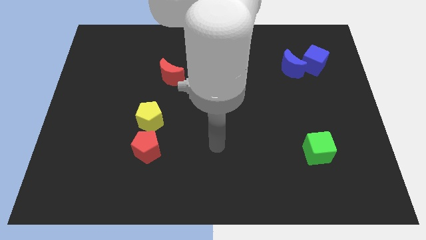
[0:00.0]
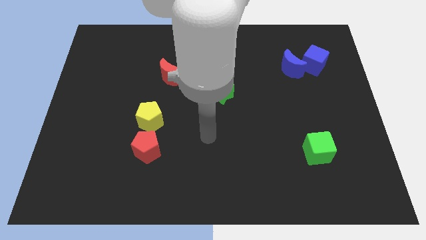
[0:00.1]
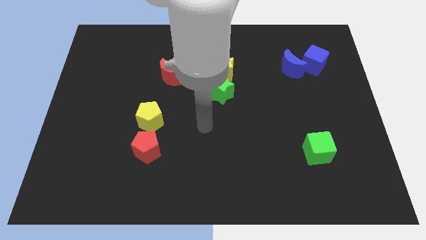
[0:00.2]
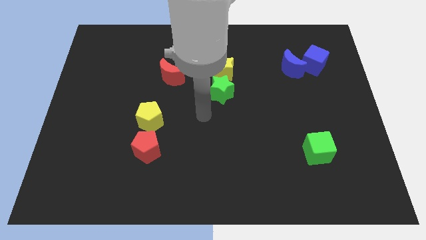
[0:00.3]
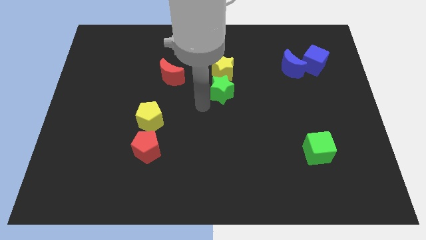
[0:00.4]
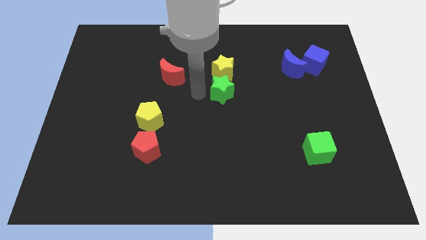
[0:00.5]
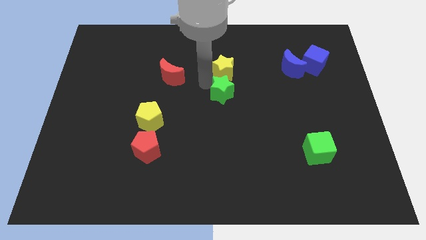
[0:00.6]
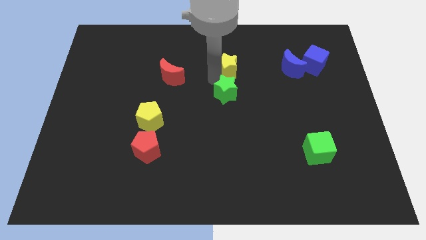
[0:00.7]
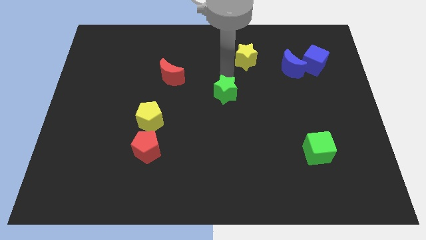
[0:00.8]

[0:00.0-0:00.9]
separate the green star from the yellow star

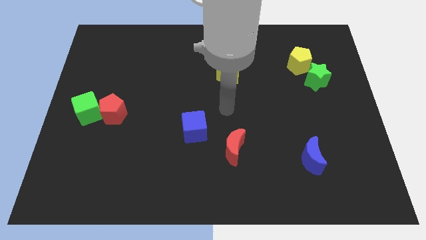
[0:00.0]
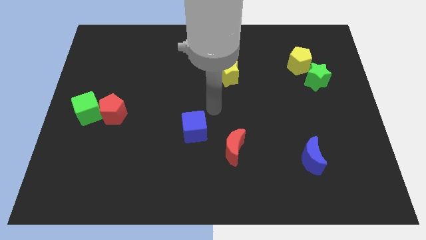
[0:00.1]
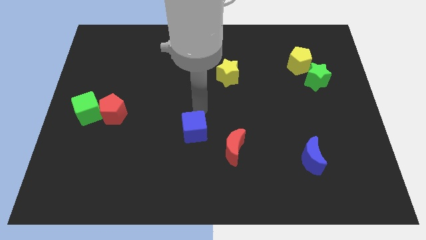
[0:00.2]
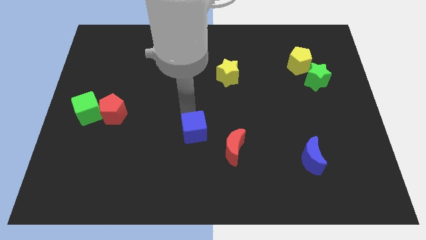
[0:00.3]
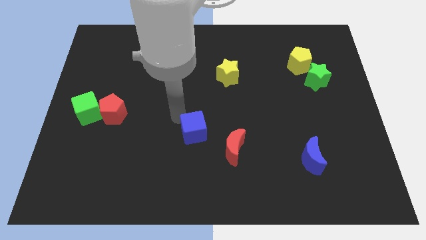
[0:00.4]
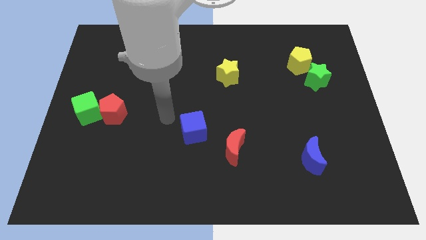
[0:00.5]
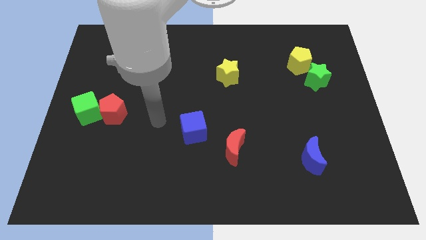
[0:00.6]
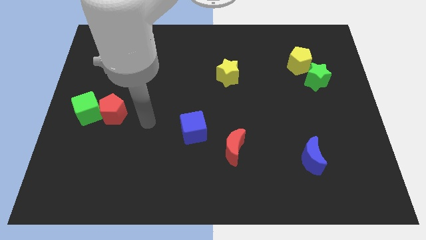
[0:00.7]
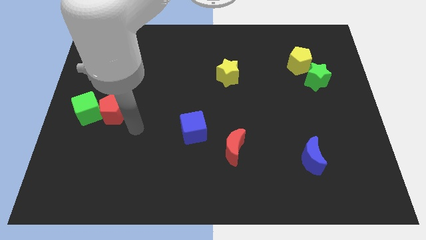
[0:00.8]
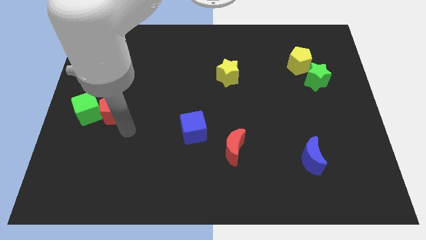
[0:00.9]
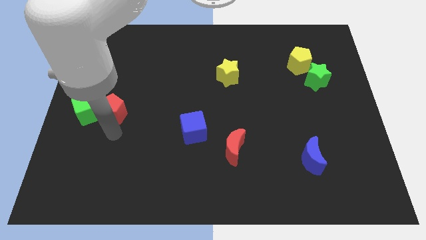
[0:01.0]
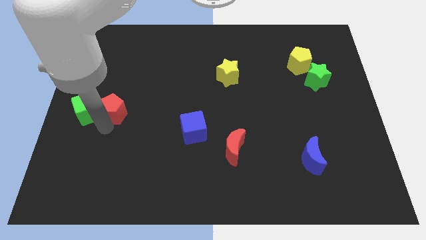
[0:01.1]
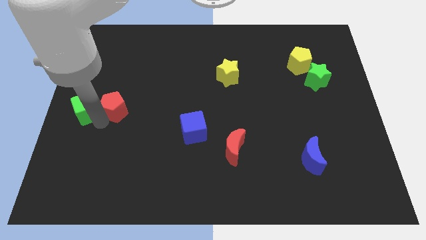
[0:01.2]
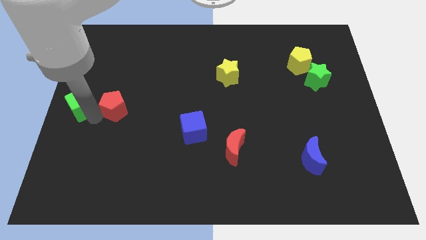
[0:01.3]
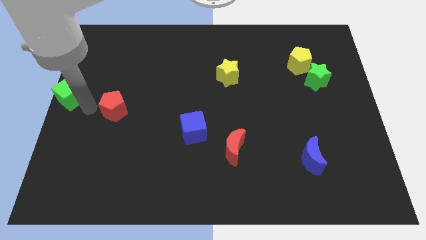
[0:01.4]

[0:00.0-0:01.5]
move the red pentagon away from the green cube

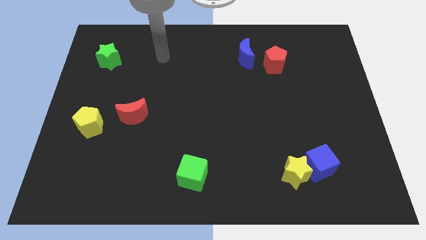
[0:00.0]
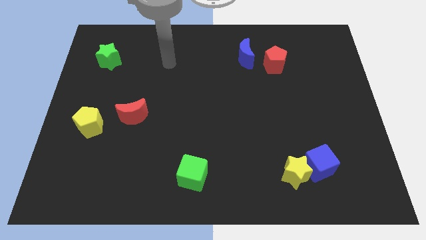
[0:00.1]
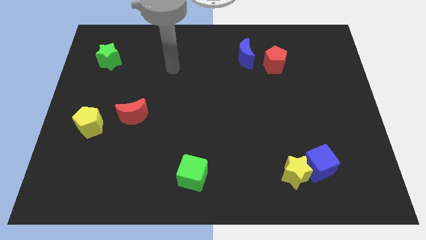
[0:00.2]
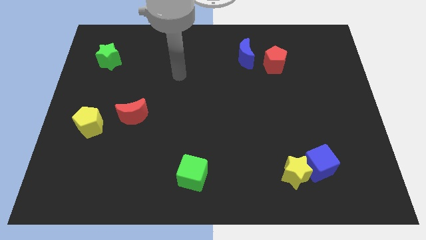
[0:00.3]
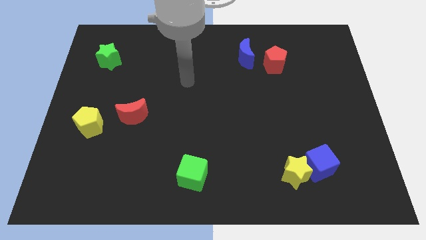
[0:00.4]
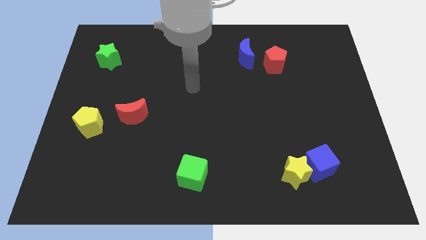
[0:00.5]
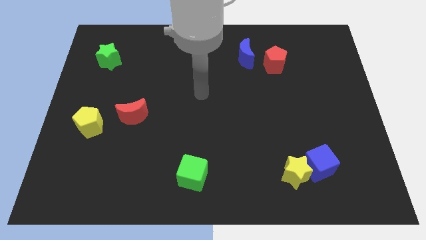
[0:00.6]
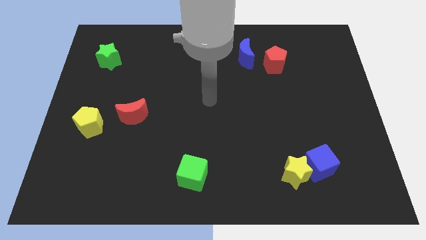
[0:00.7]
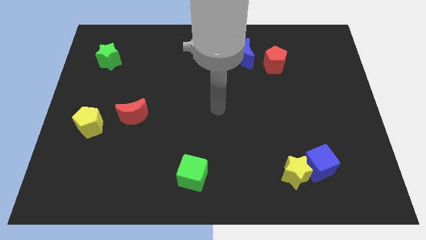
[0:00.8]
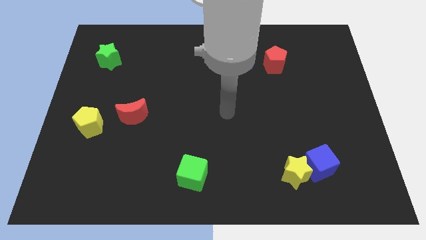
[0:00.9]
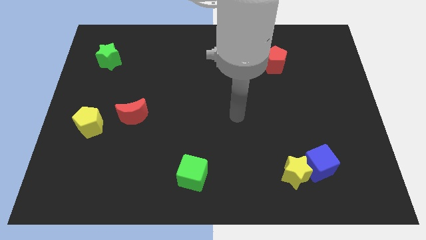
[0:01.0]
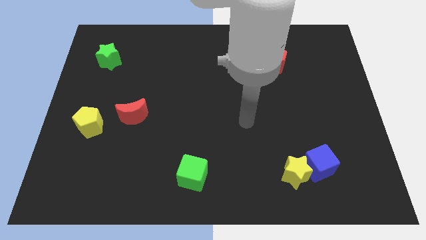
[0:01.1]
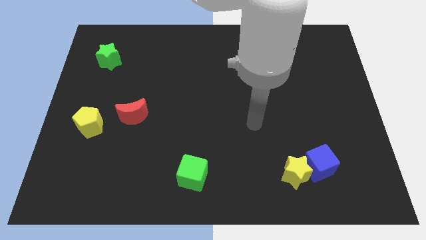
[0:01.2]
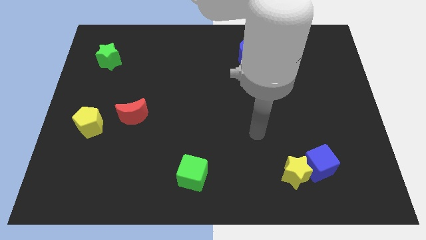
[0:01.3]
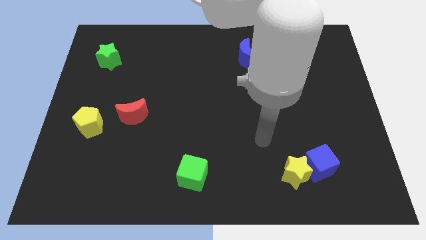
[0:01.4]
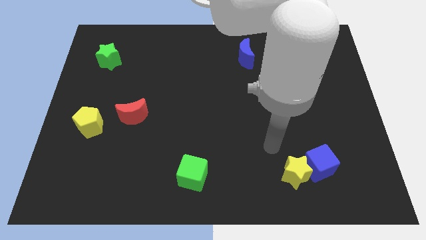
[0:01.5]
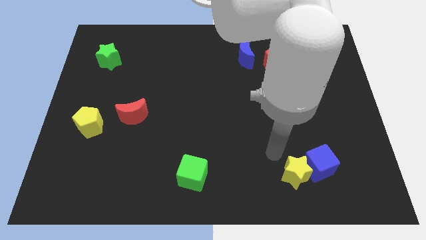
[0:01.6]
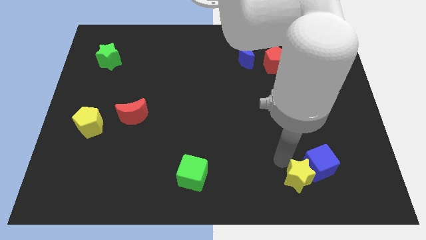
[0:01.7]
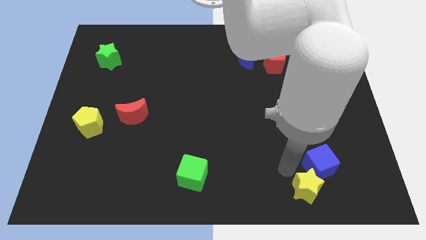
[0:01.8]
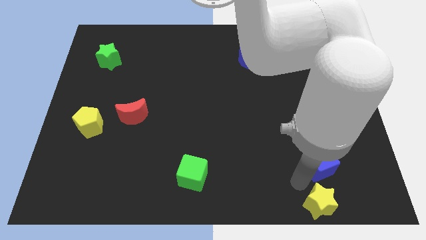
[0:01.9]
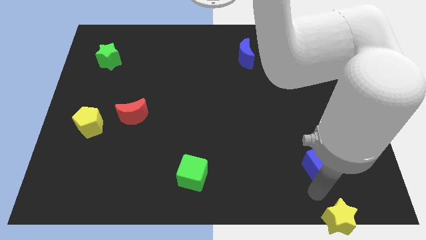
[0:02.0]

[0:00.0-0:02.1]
pull the blue cube apart from the yellow star

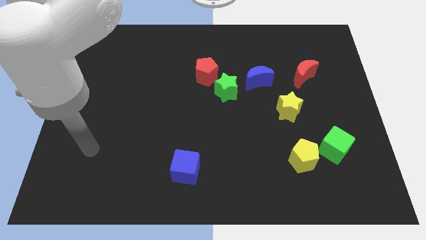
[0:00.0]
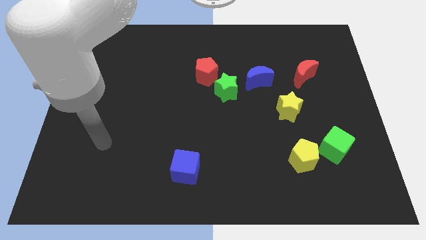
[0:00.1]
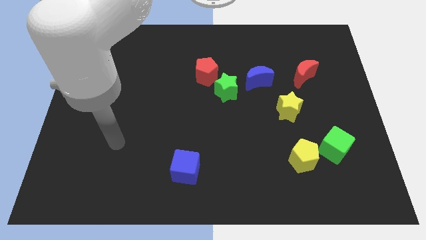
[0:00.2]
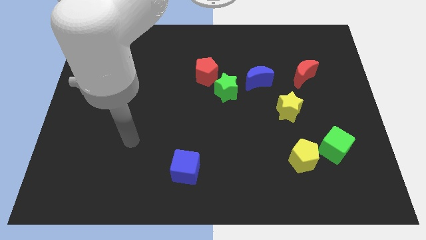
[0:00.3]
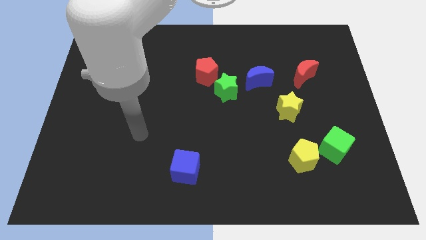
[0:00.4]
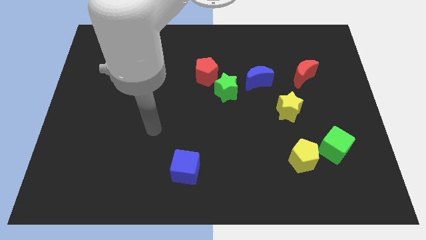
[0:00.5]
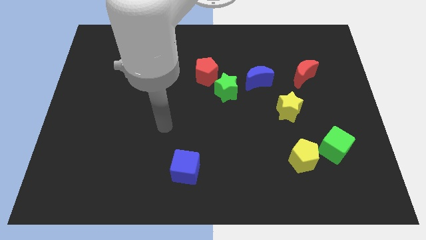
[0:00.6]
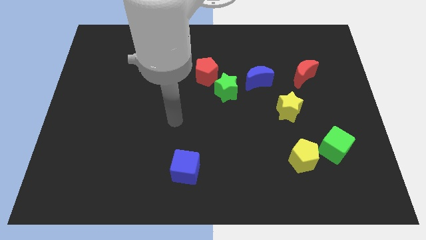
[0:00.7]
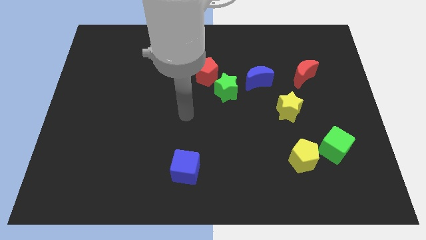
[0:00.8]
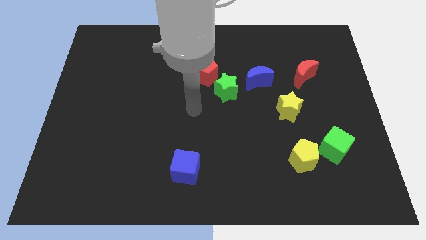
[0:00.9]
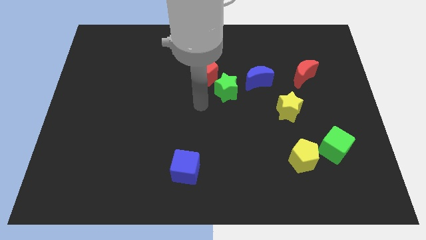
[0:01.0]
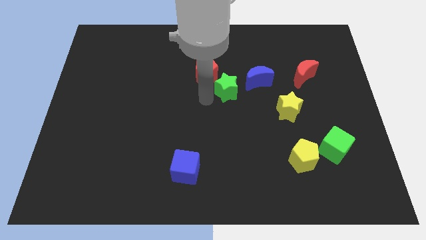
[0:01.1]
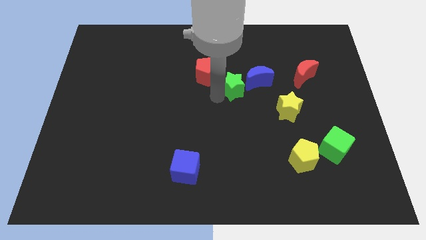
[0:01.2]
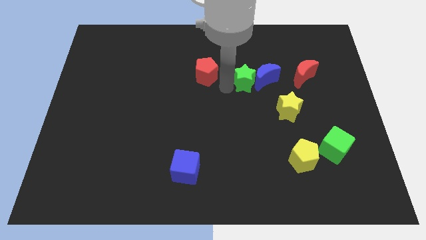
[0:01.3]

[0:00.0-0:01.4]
pull the red pentagon apart from the green star

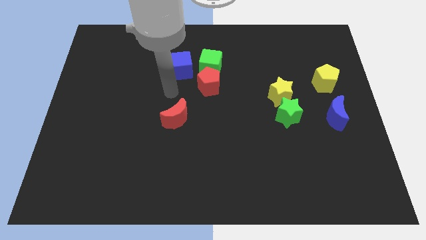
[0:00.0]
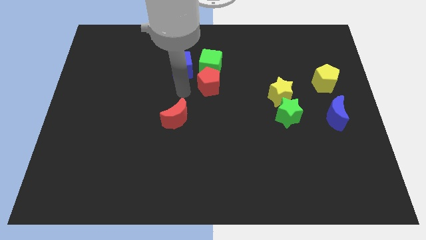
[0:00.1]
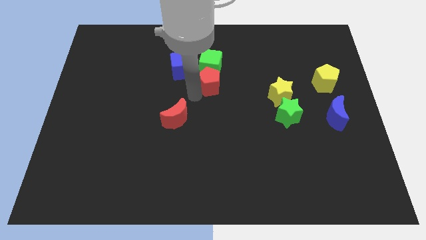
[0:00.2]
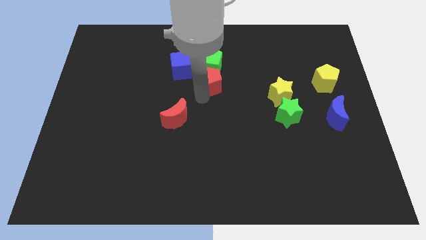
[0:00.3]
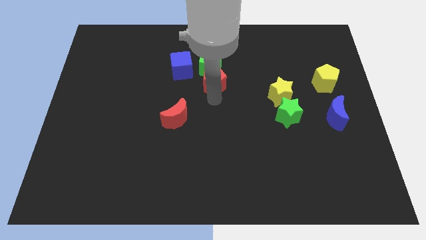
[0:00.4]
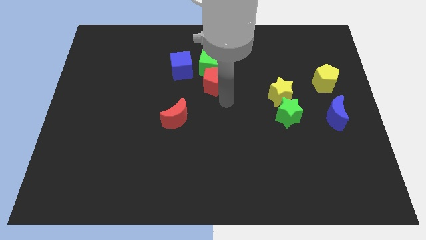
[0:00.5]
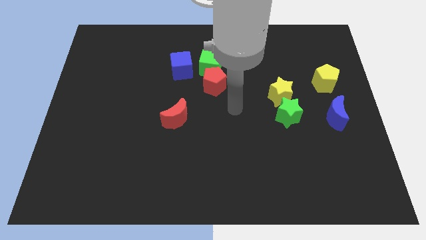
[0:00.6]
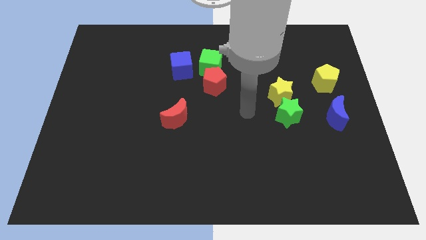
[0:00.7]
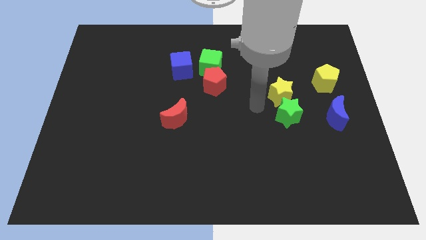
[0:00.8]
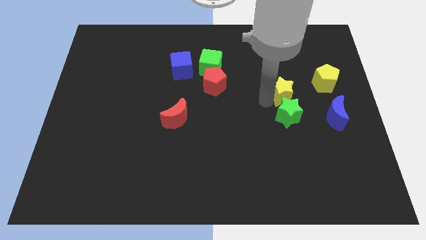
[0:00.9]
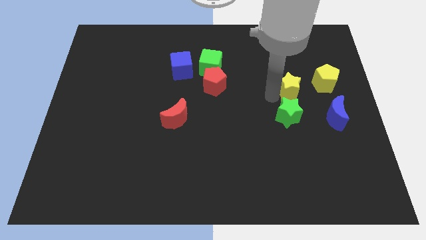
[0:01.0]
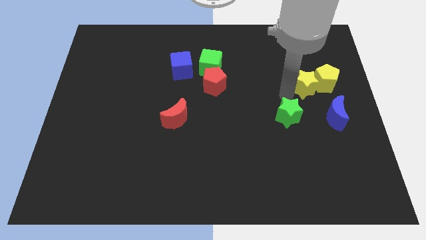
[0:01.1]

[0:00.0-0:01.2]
pull the green star apart from the yellow star

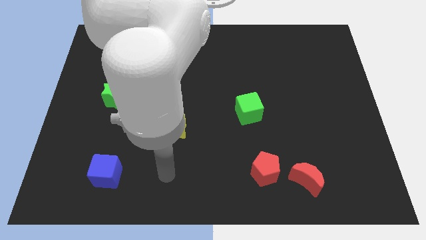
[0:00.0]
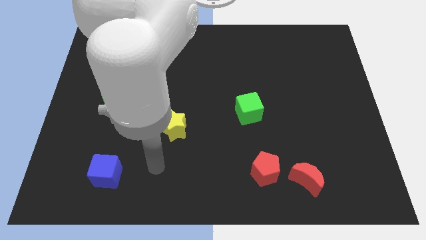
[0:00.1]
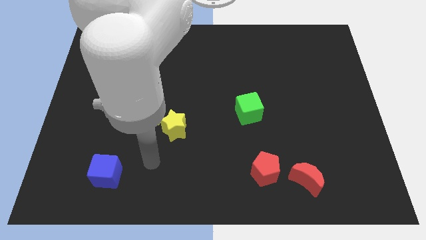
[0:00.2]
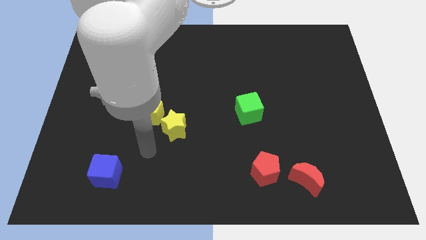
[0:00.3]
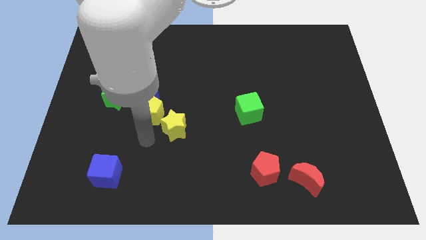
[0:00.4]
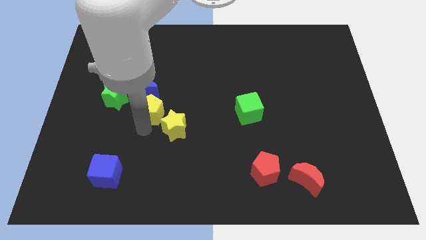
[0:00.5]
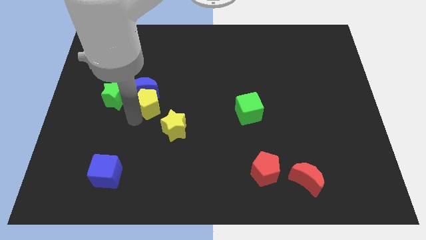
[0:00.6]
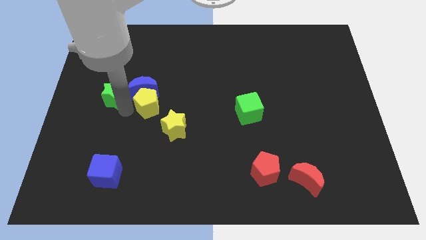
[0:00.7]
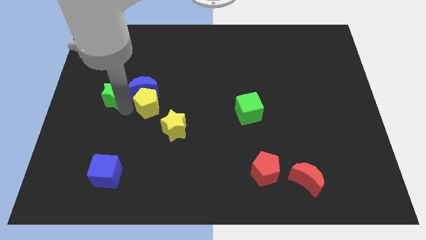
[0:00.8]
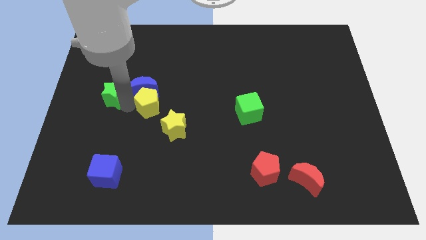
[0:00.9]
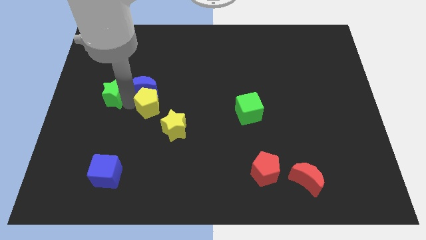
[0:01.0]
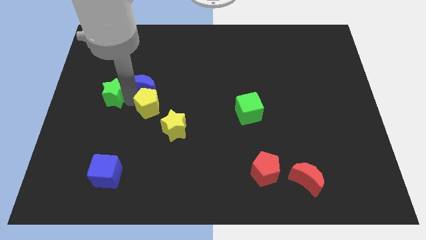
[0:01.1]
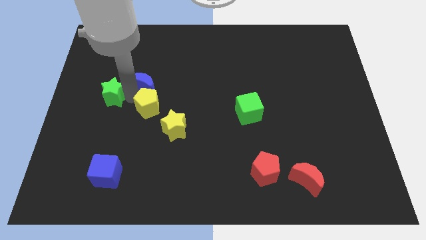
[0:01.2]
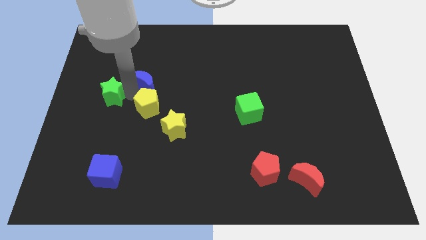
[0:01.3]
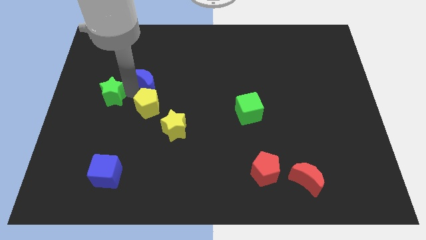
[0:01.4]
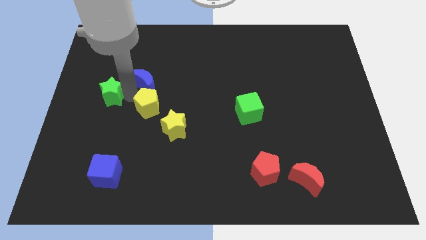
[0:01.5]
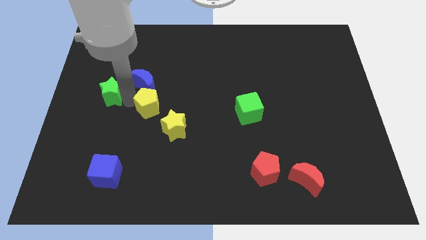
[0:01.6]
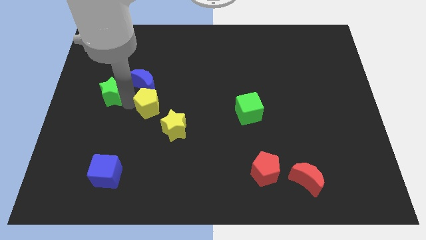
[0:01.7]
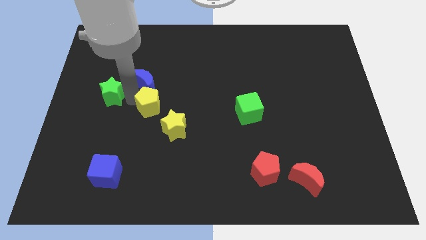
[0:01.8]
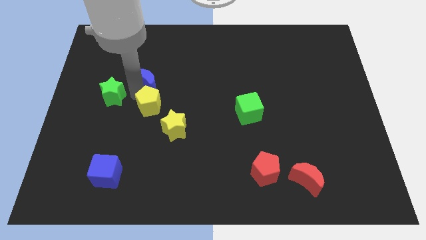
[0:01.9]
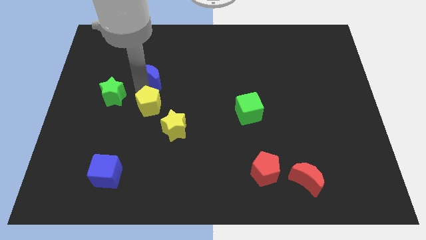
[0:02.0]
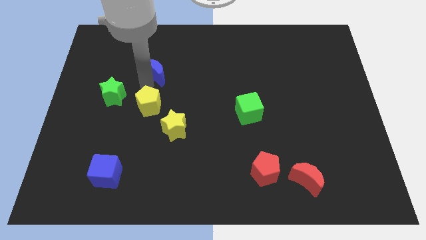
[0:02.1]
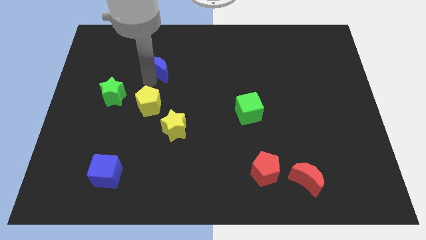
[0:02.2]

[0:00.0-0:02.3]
pull the blue moon apart from the yellow pentagon and green star
